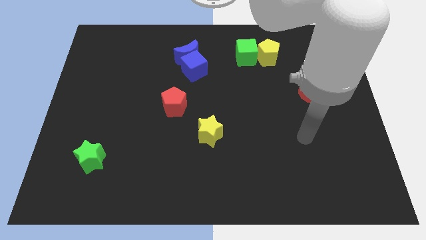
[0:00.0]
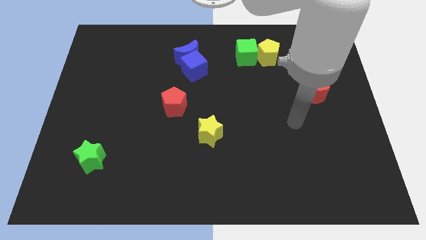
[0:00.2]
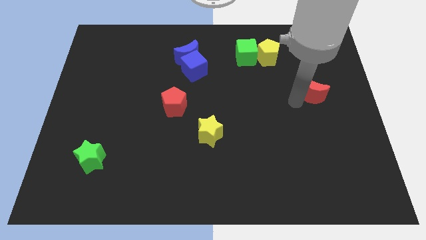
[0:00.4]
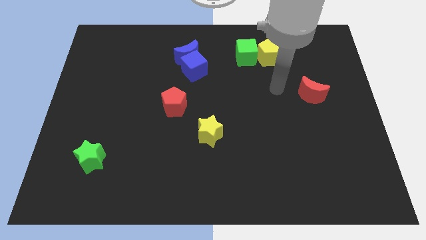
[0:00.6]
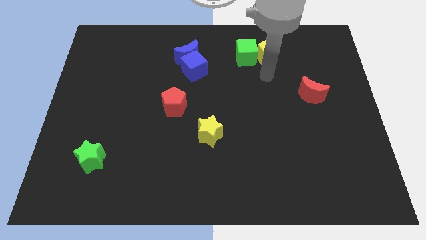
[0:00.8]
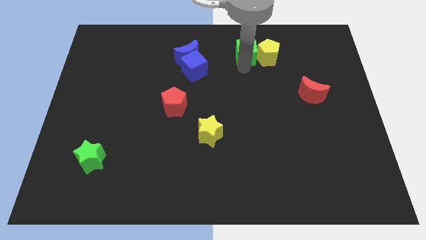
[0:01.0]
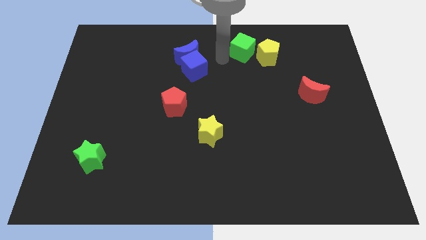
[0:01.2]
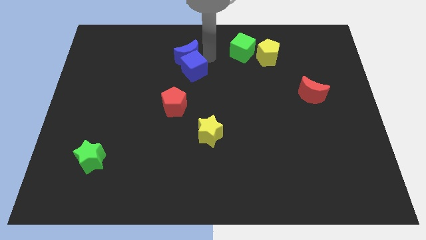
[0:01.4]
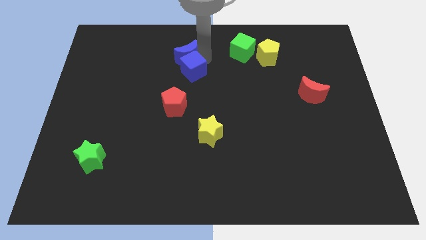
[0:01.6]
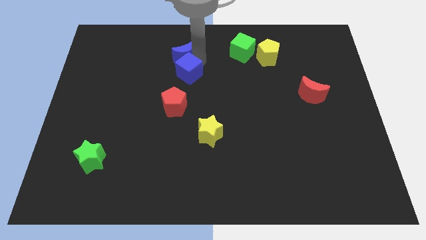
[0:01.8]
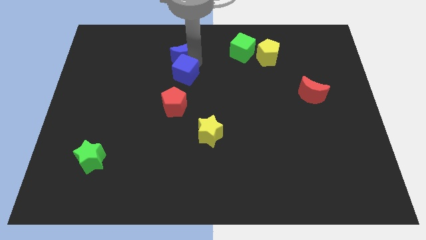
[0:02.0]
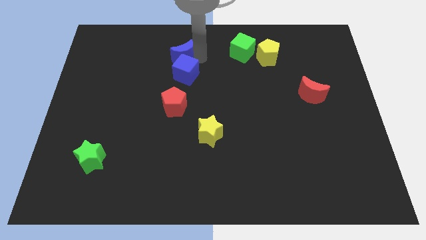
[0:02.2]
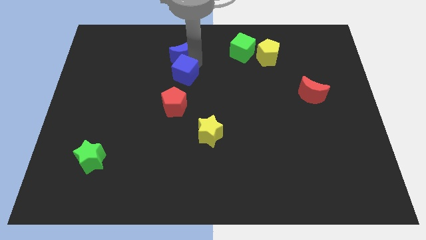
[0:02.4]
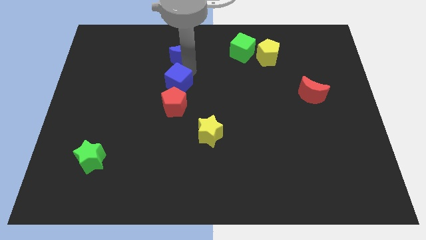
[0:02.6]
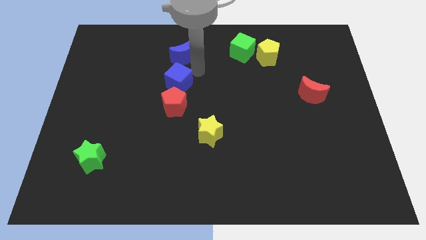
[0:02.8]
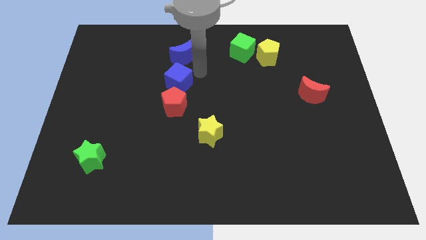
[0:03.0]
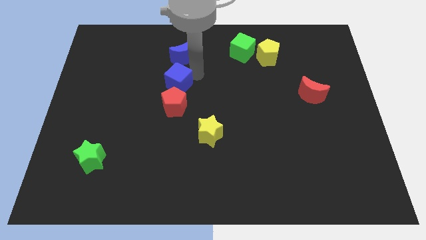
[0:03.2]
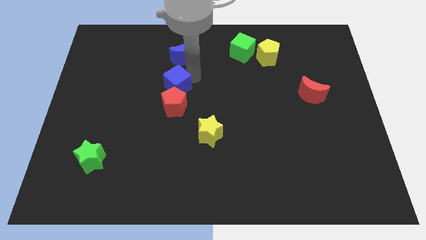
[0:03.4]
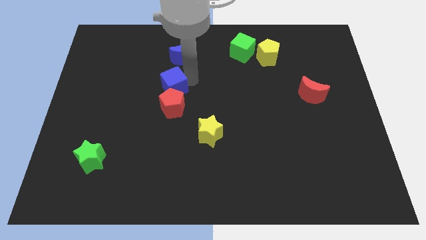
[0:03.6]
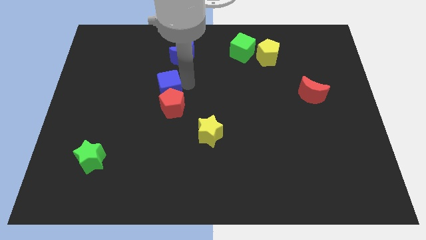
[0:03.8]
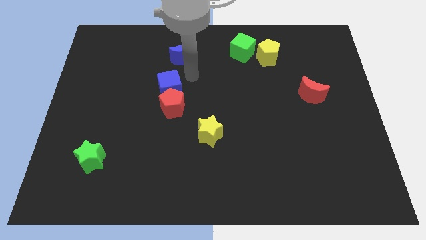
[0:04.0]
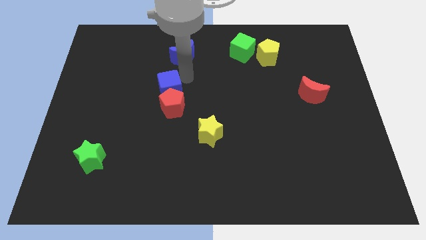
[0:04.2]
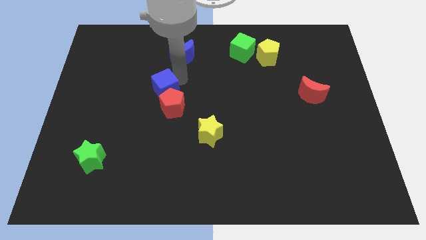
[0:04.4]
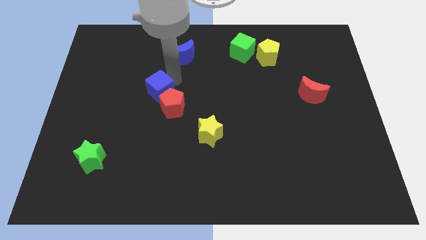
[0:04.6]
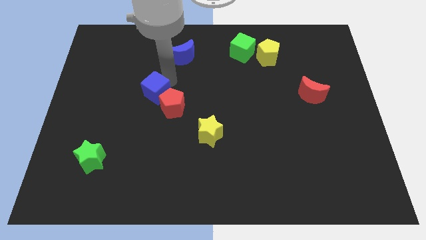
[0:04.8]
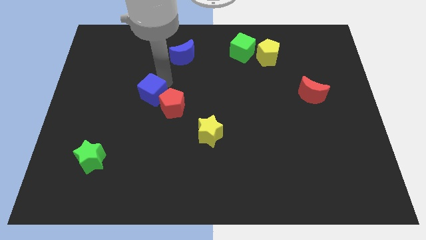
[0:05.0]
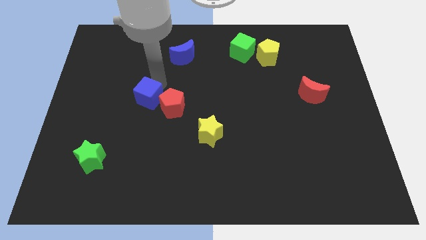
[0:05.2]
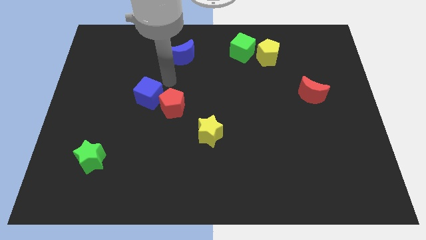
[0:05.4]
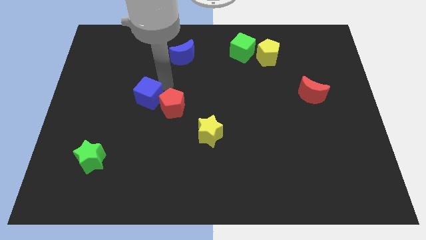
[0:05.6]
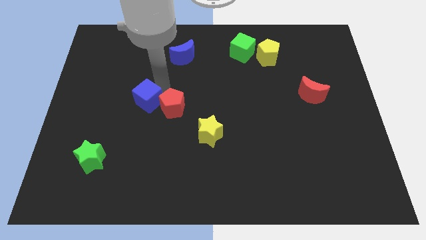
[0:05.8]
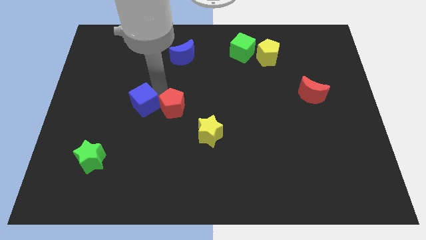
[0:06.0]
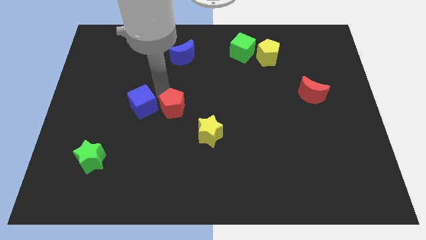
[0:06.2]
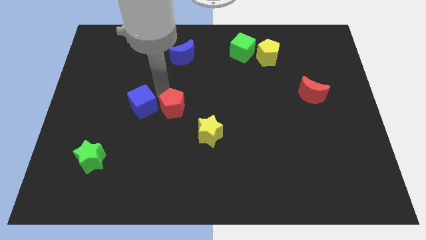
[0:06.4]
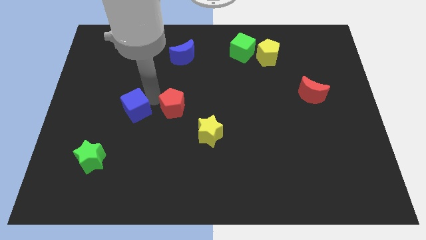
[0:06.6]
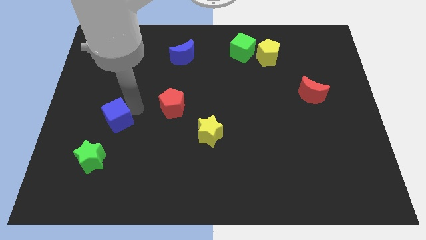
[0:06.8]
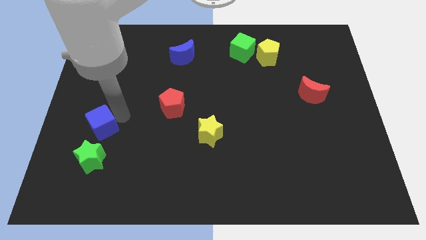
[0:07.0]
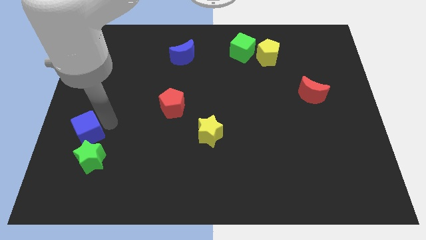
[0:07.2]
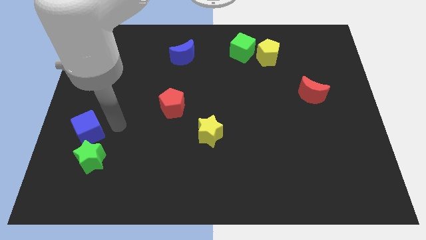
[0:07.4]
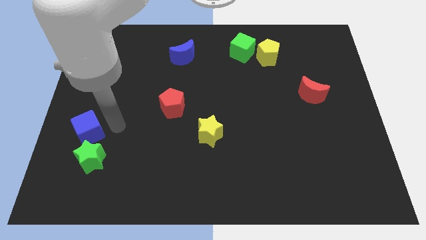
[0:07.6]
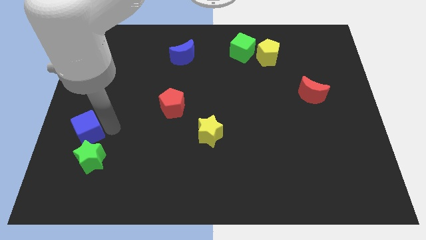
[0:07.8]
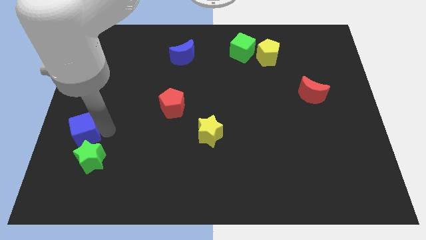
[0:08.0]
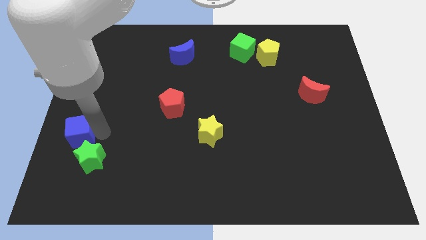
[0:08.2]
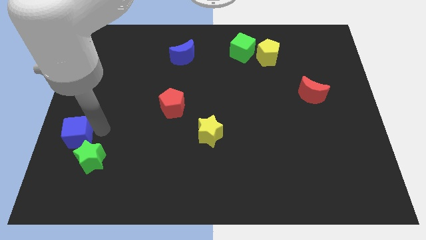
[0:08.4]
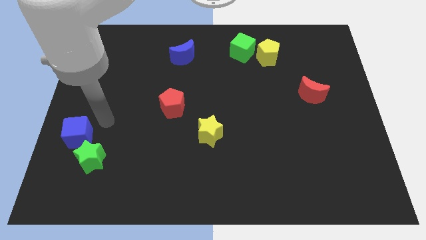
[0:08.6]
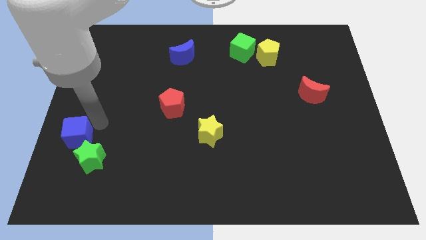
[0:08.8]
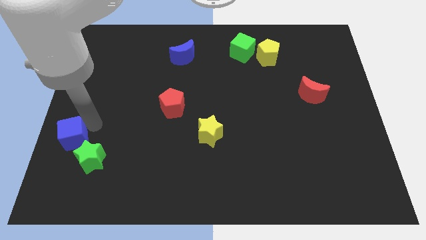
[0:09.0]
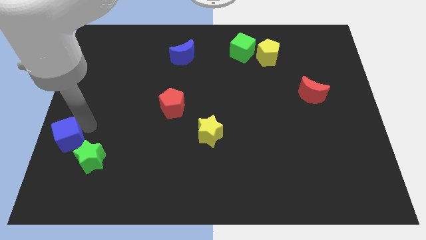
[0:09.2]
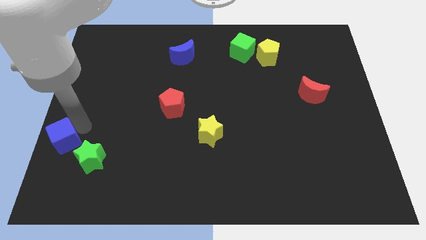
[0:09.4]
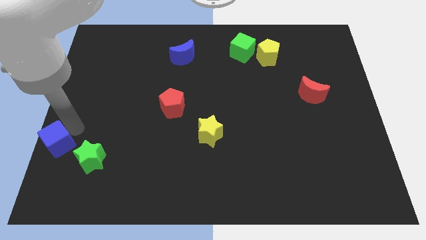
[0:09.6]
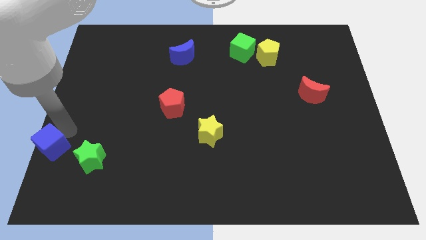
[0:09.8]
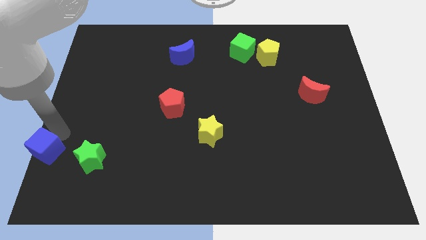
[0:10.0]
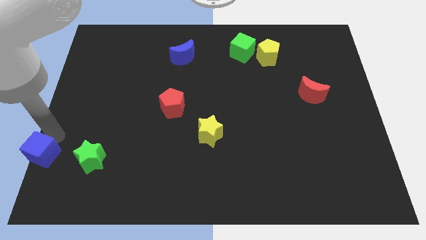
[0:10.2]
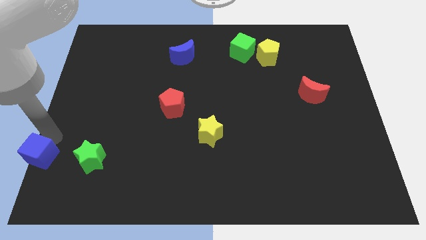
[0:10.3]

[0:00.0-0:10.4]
put the blue cube to the bottom left of the board
